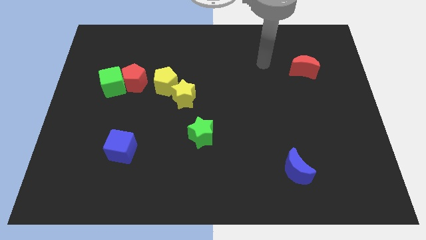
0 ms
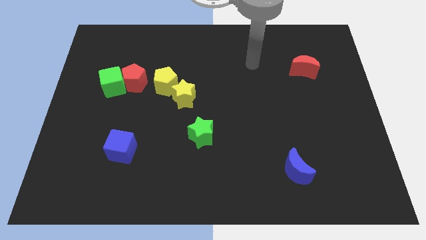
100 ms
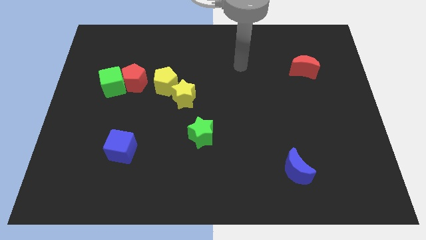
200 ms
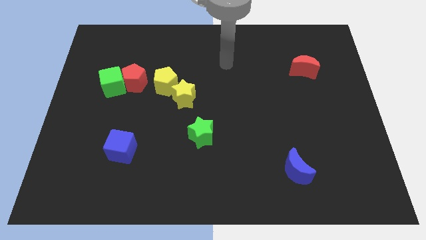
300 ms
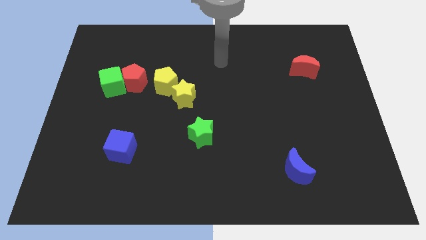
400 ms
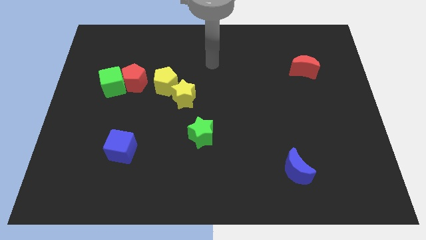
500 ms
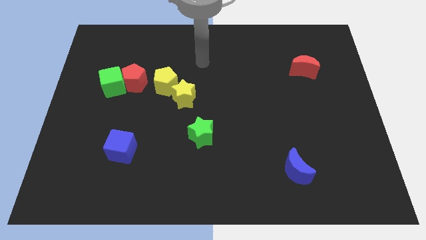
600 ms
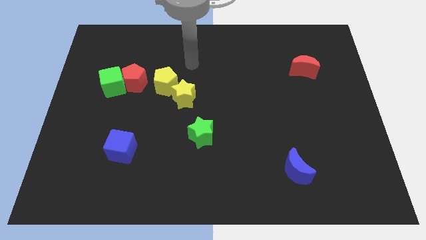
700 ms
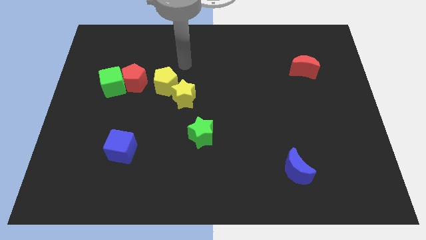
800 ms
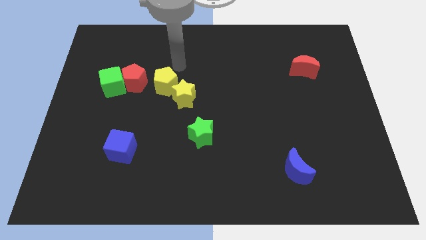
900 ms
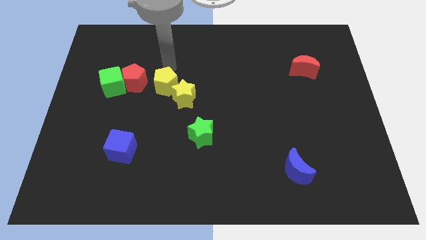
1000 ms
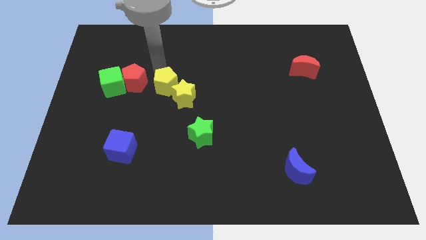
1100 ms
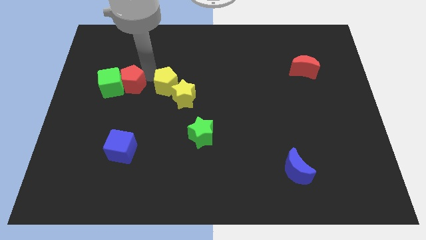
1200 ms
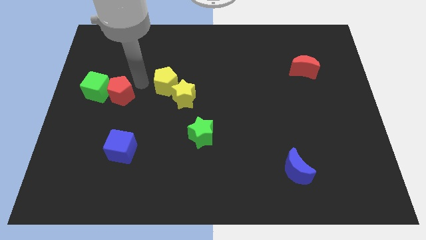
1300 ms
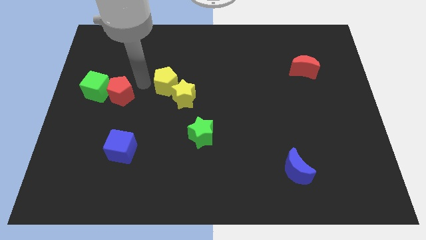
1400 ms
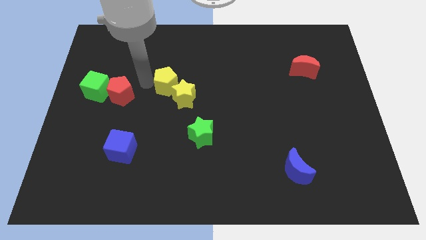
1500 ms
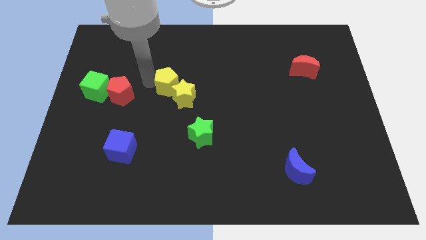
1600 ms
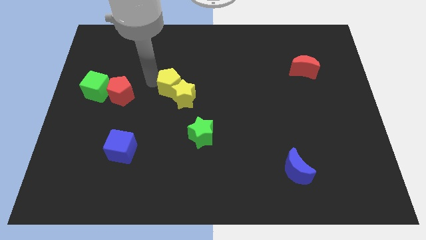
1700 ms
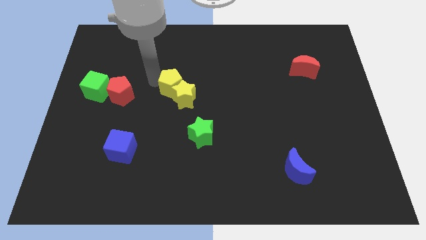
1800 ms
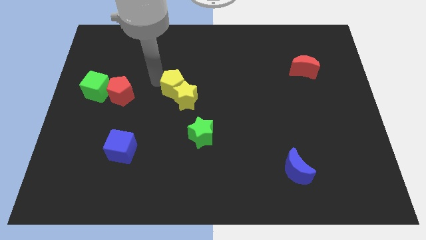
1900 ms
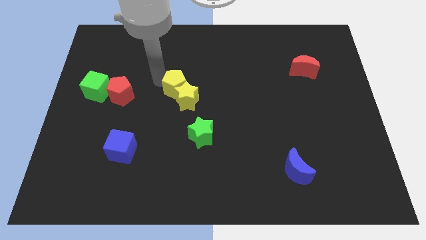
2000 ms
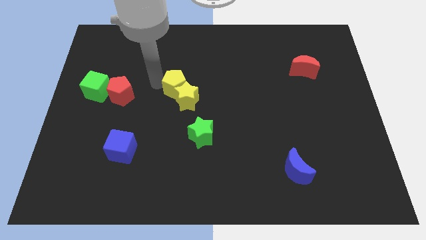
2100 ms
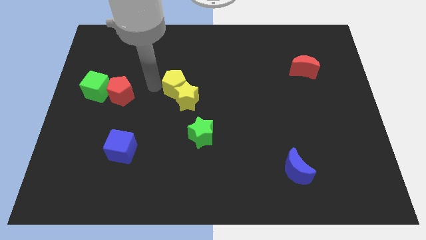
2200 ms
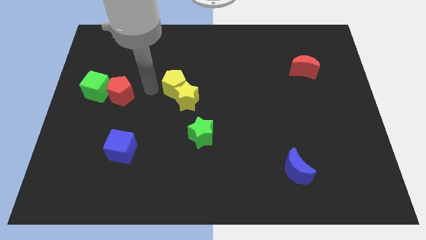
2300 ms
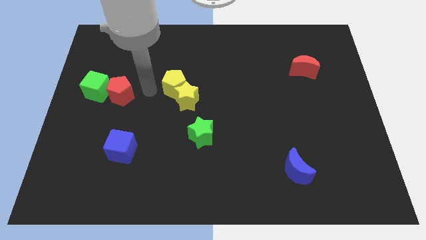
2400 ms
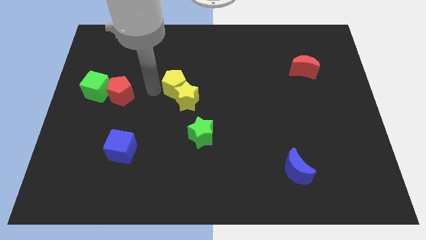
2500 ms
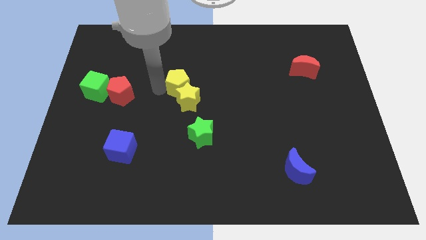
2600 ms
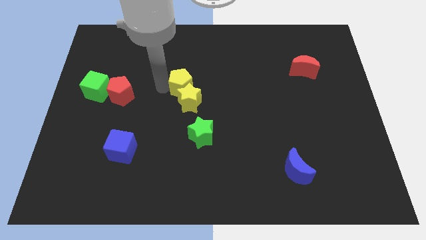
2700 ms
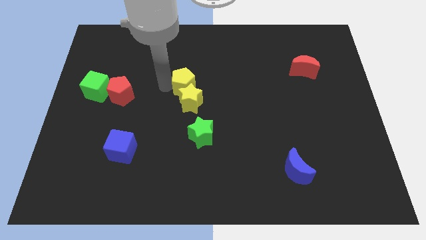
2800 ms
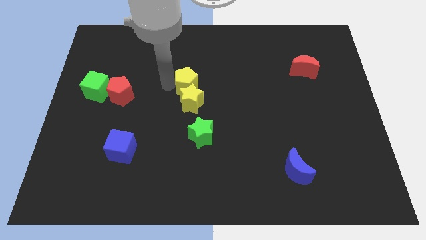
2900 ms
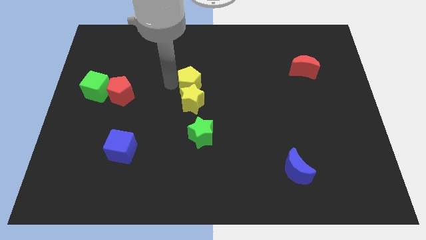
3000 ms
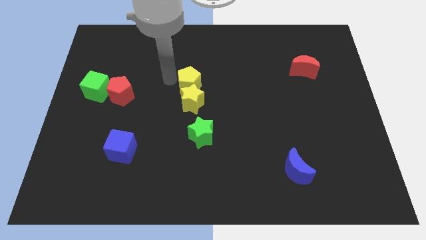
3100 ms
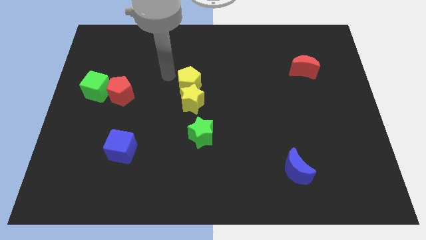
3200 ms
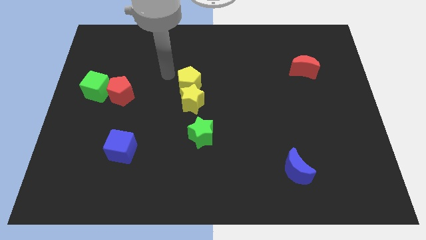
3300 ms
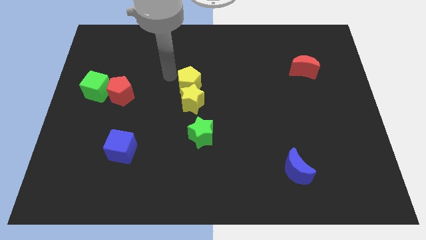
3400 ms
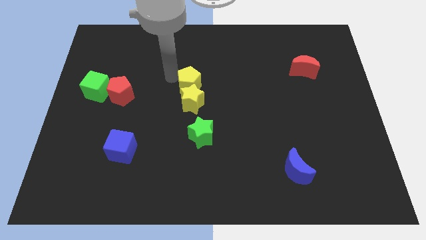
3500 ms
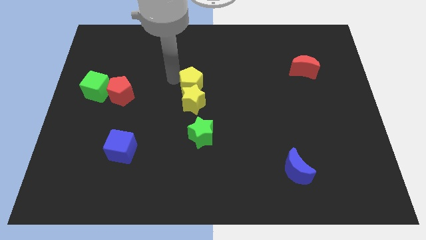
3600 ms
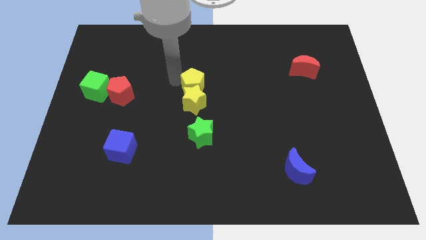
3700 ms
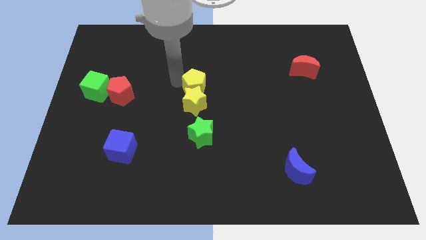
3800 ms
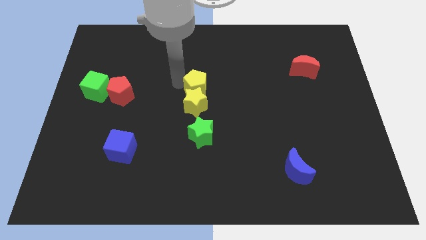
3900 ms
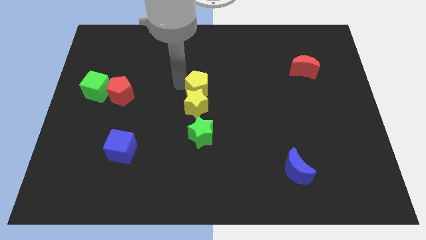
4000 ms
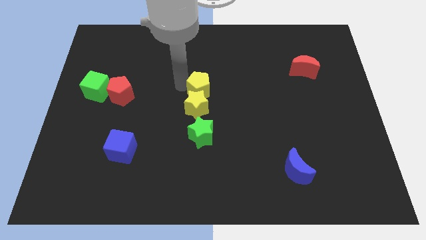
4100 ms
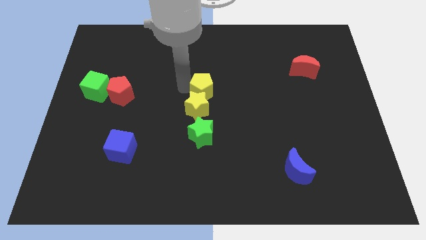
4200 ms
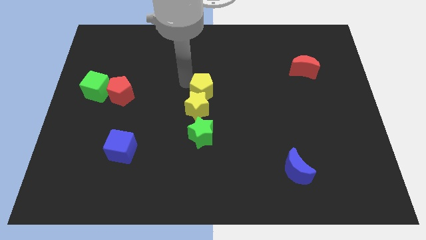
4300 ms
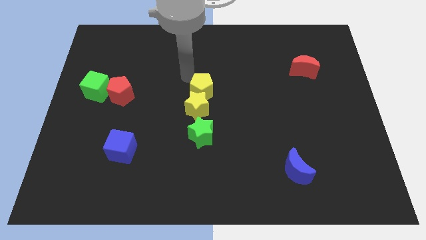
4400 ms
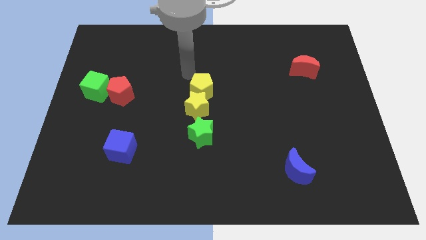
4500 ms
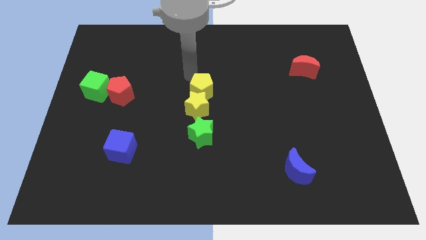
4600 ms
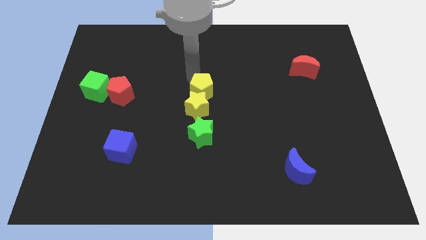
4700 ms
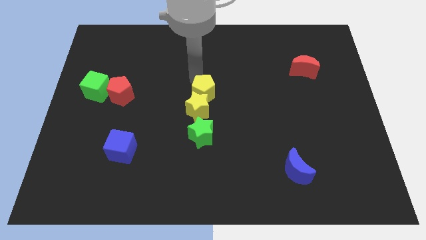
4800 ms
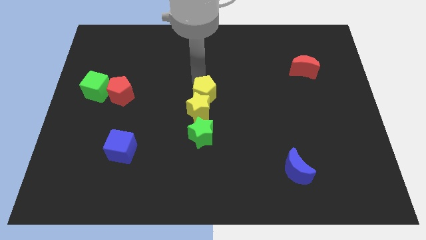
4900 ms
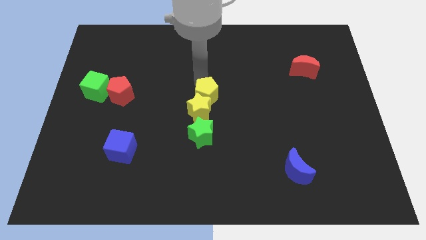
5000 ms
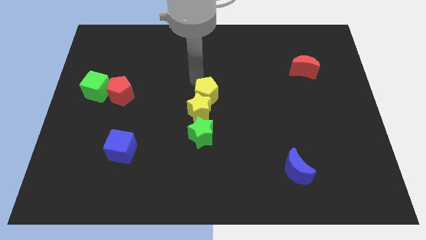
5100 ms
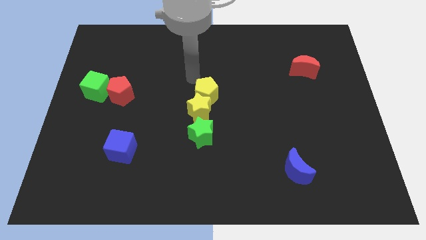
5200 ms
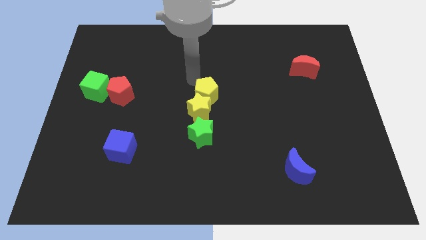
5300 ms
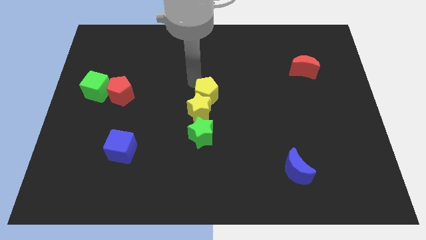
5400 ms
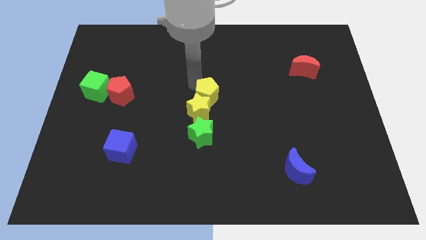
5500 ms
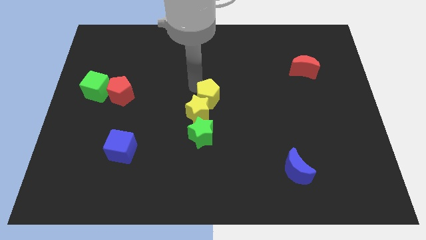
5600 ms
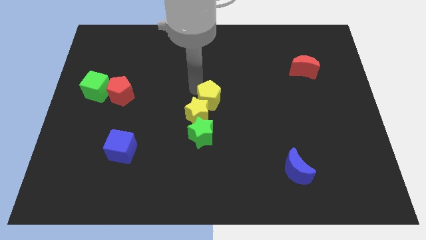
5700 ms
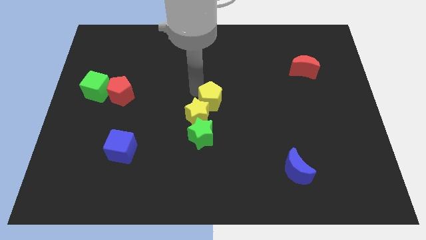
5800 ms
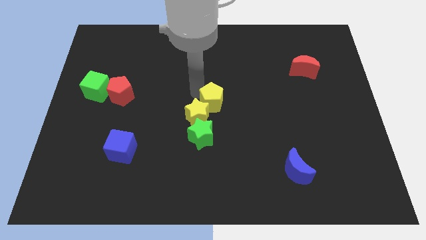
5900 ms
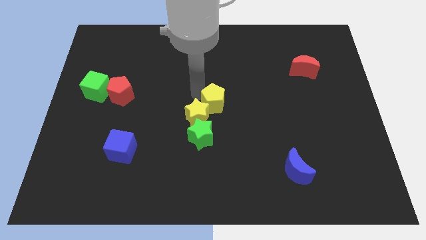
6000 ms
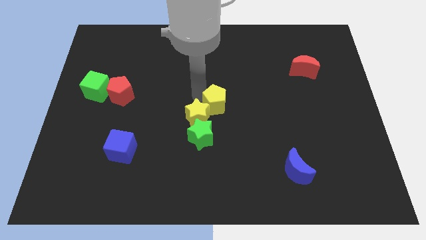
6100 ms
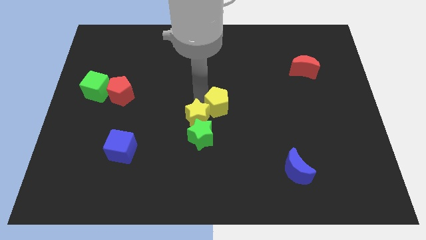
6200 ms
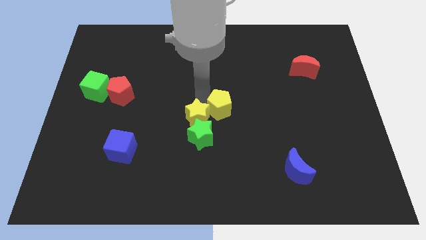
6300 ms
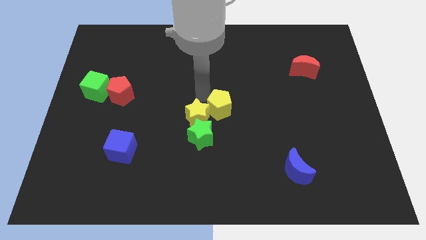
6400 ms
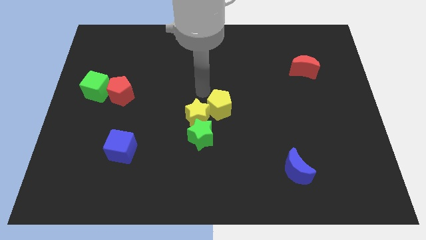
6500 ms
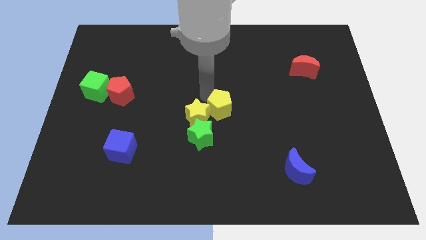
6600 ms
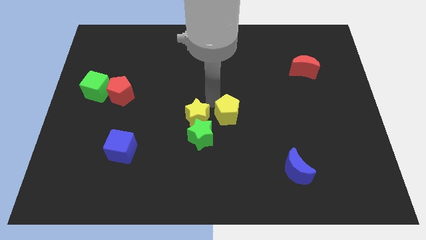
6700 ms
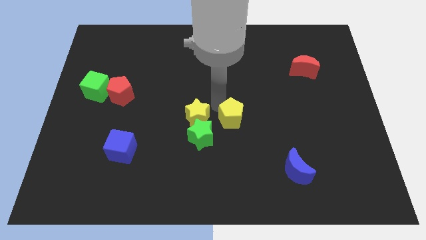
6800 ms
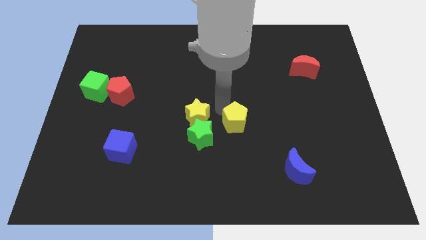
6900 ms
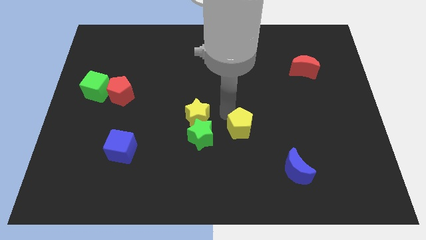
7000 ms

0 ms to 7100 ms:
move the yellow pentagon downwards and then to the right

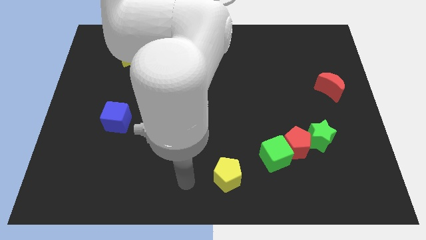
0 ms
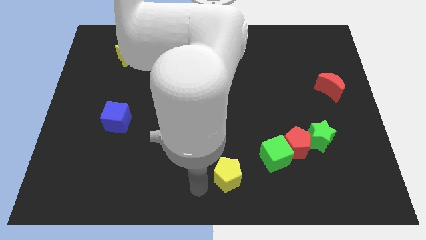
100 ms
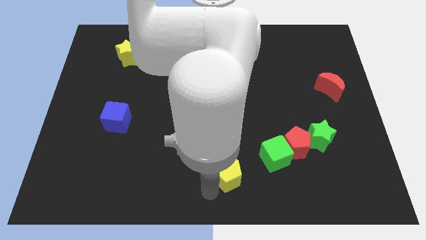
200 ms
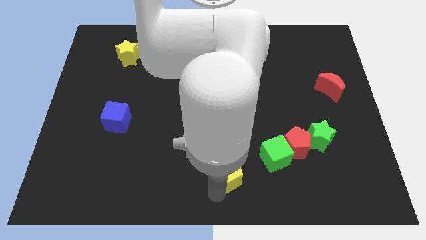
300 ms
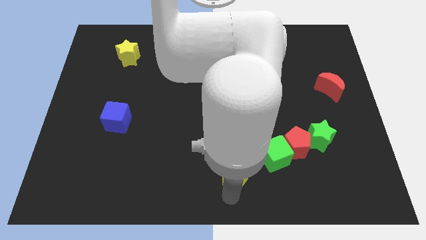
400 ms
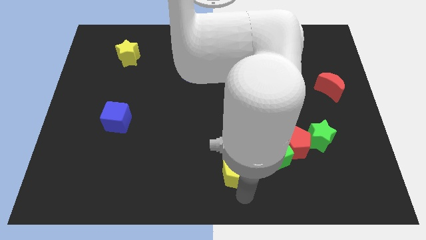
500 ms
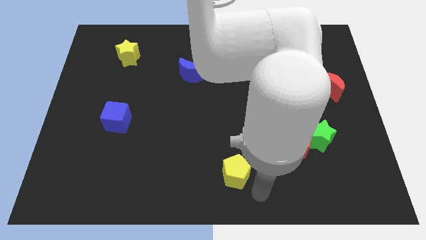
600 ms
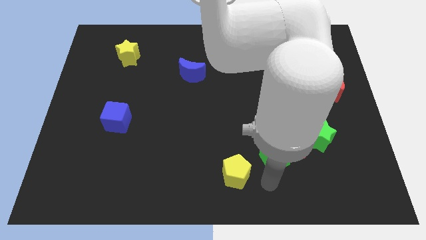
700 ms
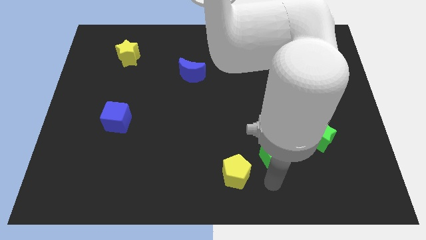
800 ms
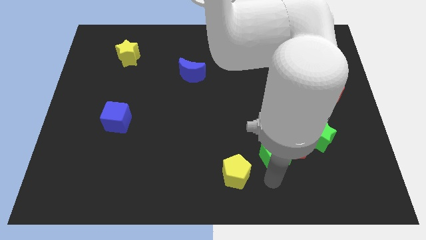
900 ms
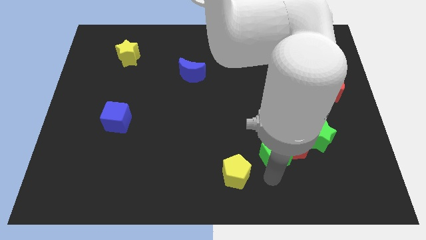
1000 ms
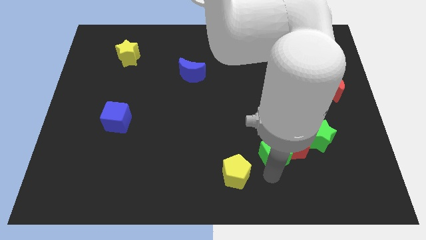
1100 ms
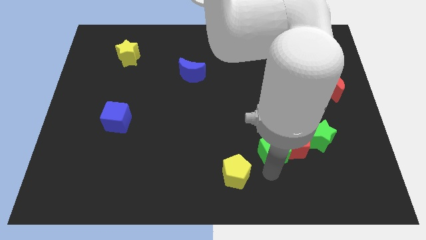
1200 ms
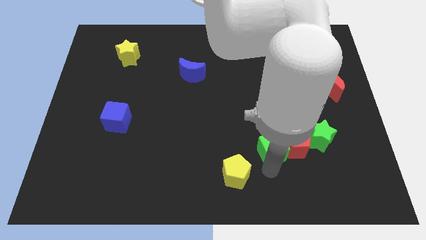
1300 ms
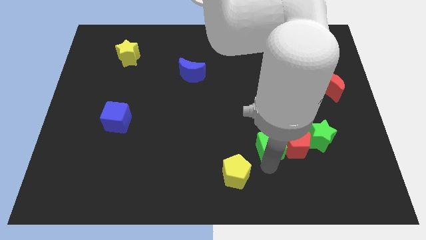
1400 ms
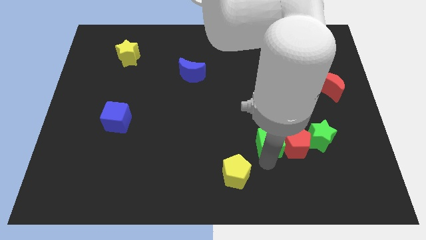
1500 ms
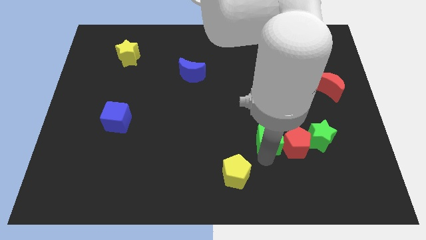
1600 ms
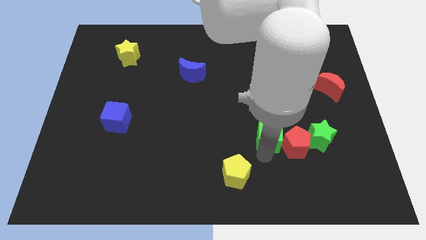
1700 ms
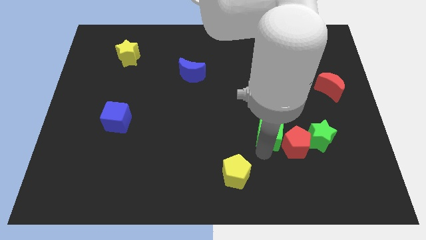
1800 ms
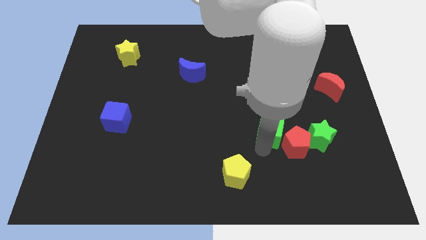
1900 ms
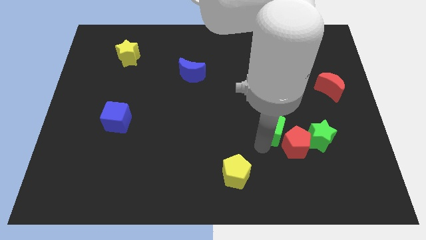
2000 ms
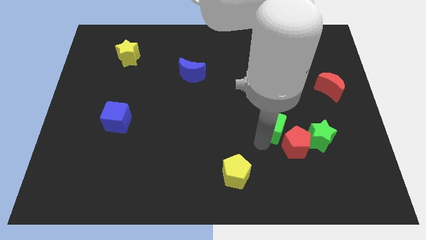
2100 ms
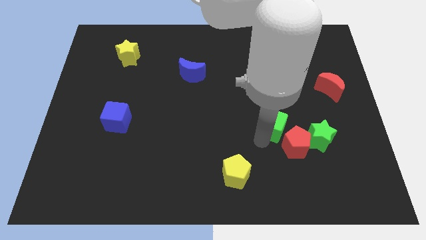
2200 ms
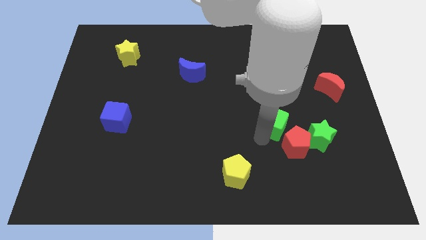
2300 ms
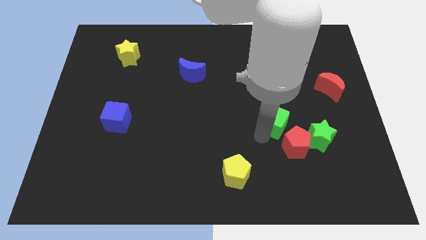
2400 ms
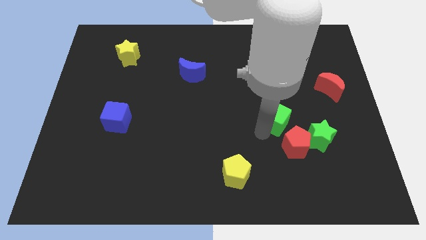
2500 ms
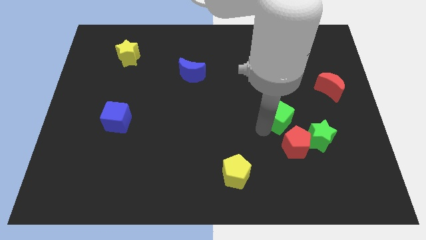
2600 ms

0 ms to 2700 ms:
slide the green cube diagonally up and right slightly
